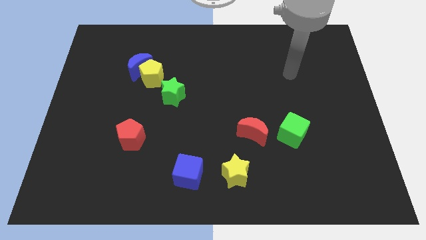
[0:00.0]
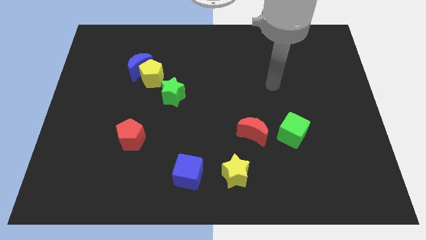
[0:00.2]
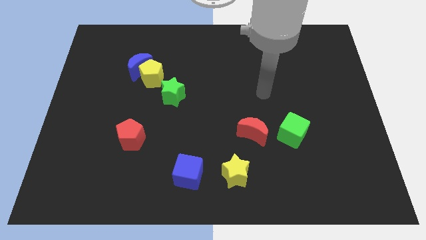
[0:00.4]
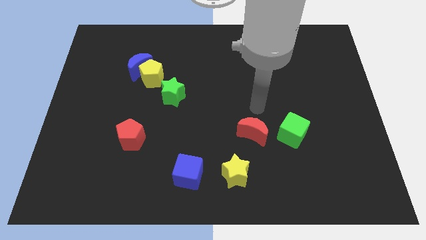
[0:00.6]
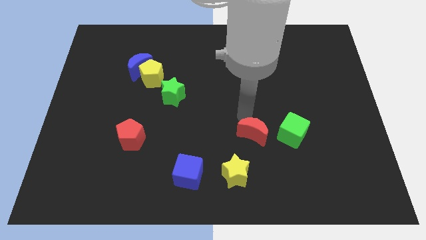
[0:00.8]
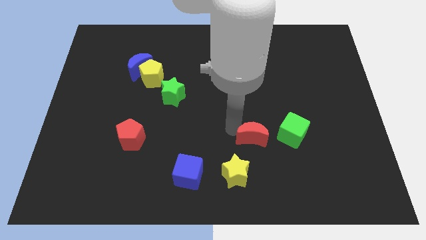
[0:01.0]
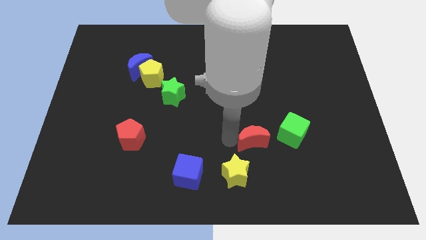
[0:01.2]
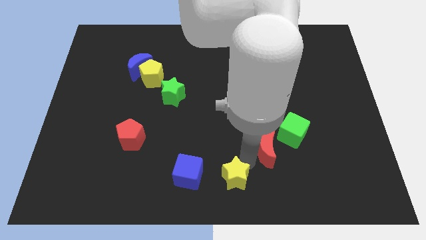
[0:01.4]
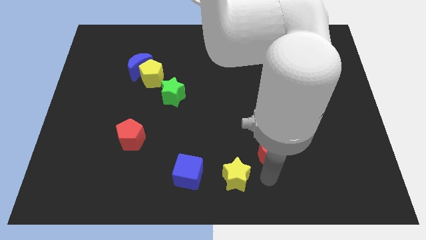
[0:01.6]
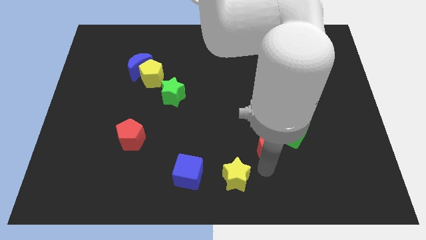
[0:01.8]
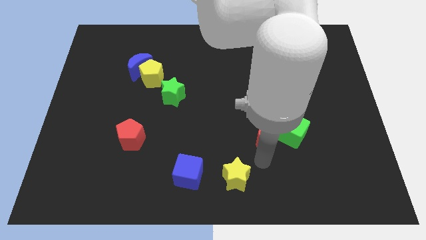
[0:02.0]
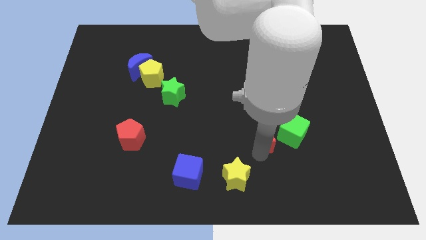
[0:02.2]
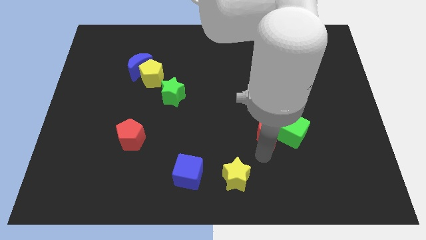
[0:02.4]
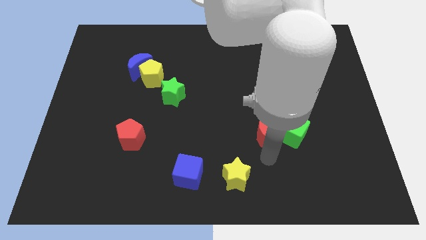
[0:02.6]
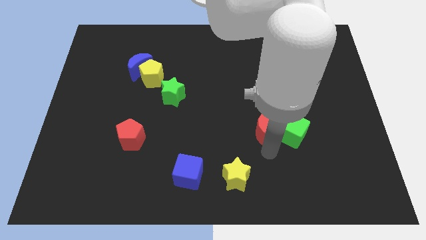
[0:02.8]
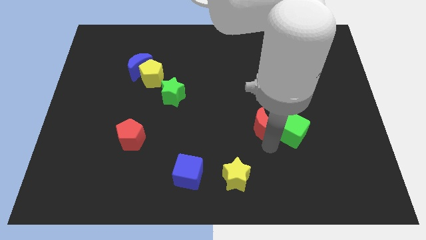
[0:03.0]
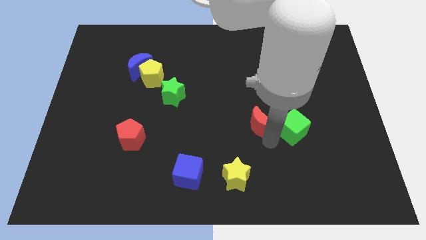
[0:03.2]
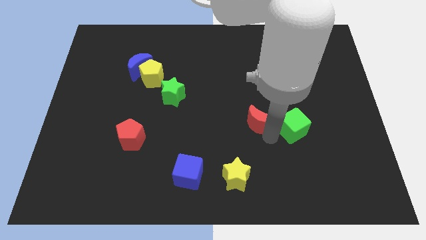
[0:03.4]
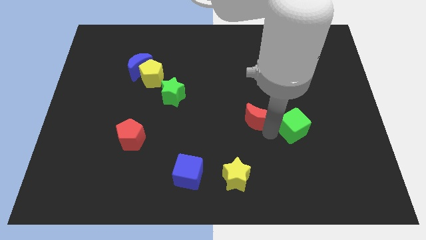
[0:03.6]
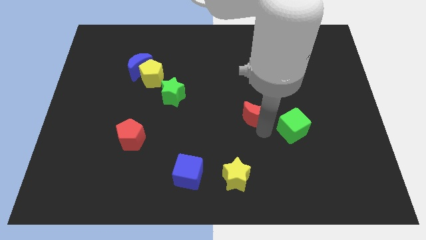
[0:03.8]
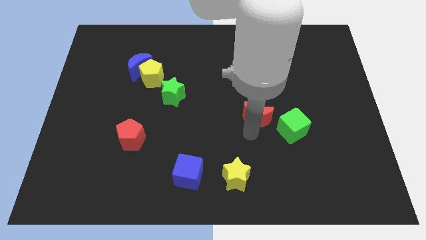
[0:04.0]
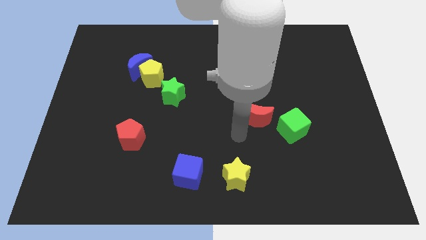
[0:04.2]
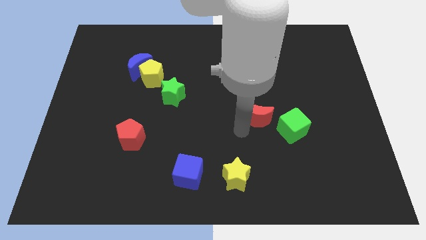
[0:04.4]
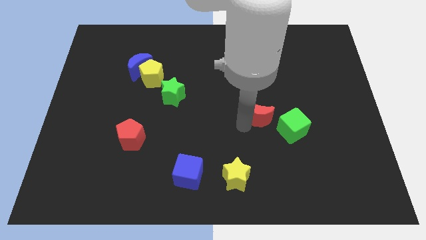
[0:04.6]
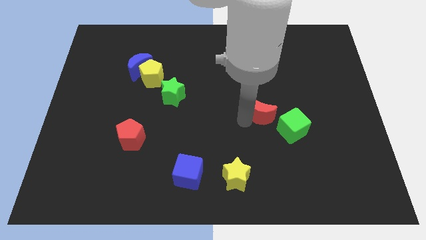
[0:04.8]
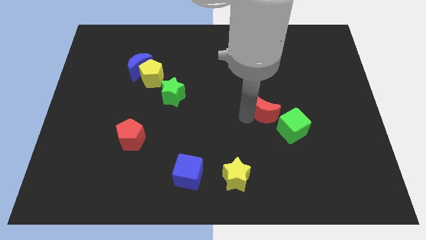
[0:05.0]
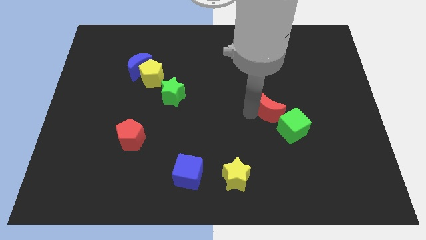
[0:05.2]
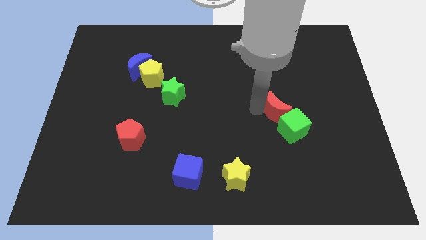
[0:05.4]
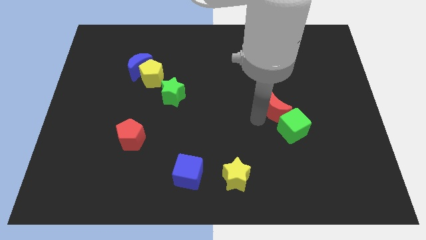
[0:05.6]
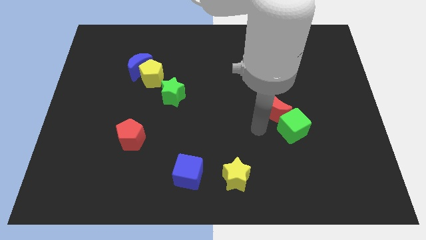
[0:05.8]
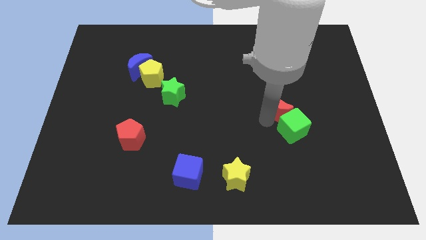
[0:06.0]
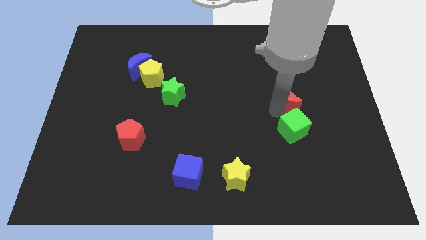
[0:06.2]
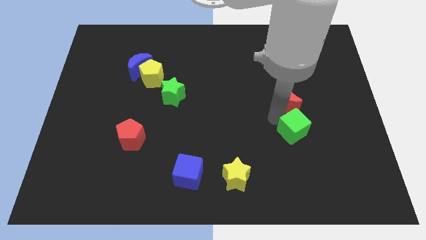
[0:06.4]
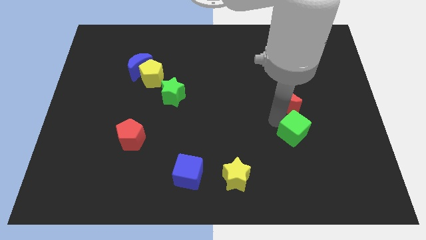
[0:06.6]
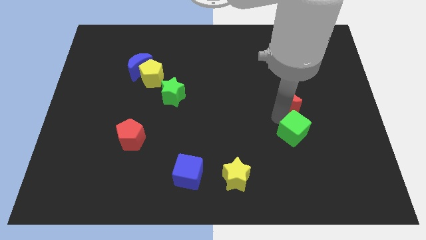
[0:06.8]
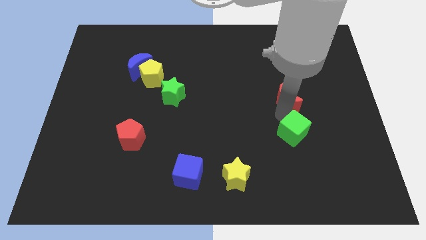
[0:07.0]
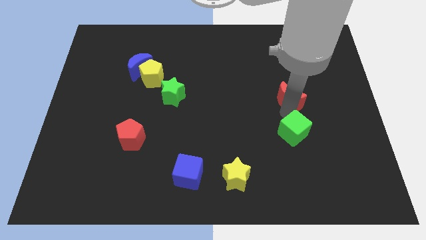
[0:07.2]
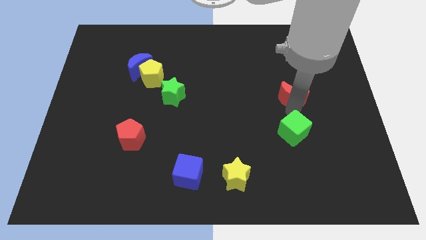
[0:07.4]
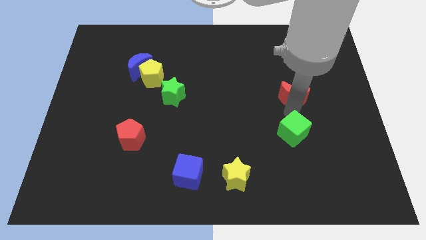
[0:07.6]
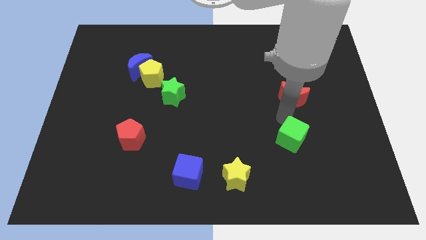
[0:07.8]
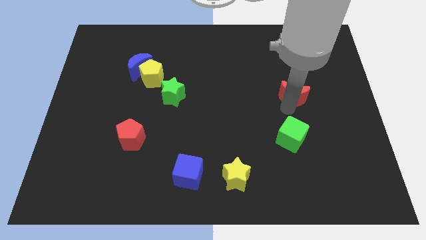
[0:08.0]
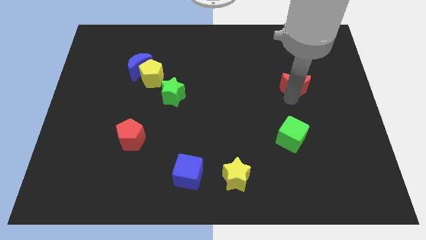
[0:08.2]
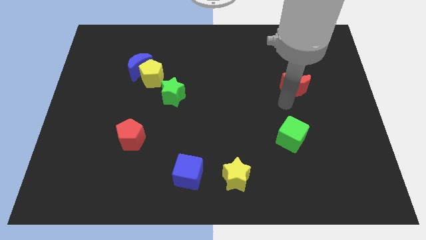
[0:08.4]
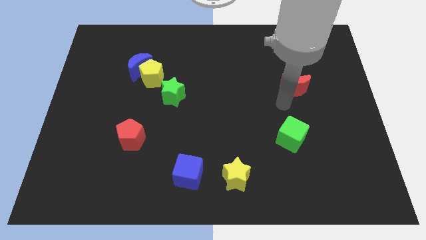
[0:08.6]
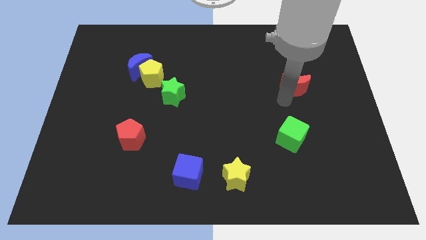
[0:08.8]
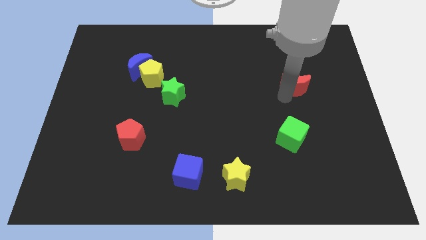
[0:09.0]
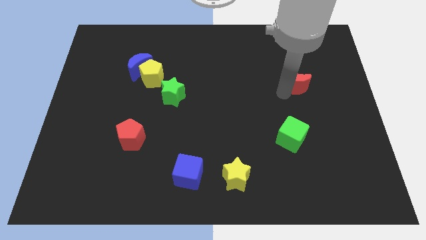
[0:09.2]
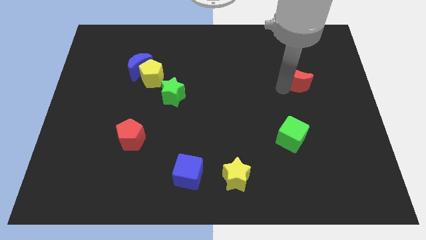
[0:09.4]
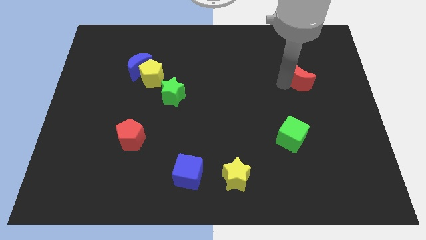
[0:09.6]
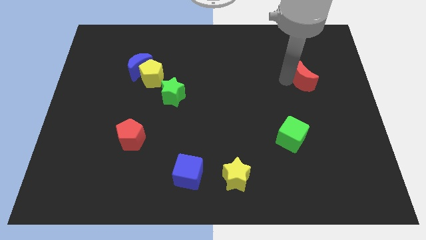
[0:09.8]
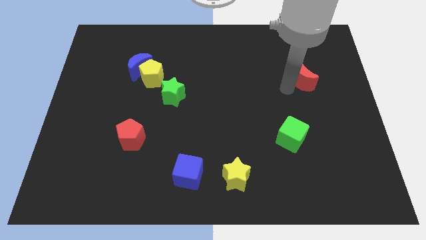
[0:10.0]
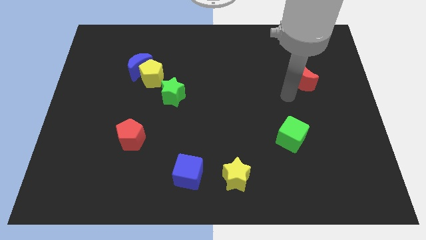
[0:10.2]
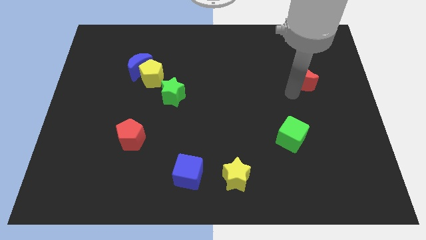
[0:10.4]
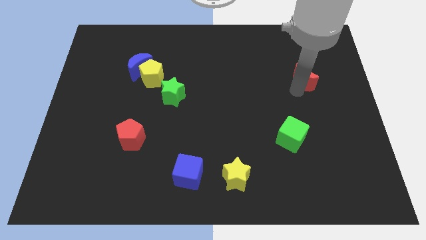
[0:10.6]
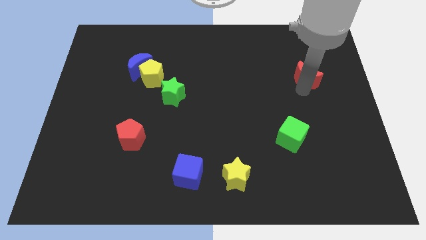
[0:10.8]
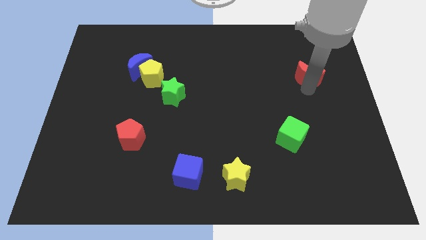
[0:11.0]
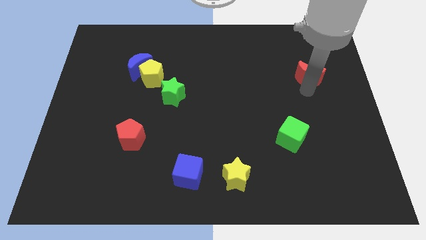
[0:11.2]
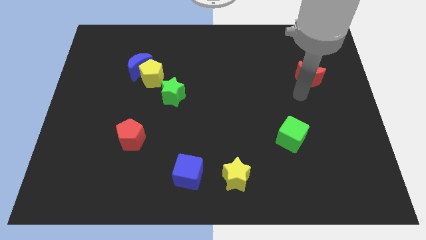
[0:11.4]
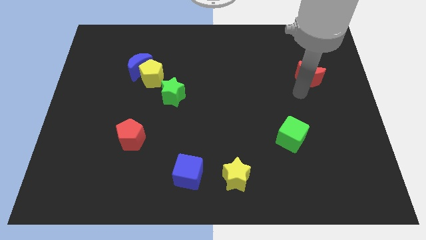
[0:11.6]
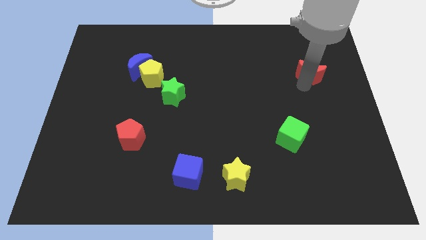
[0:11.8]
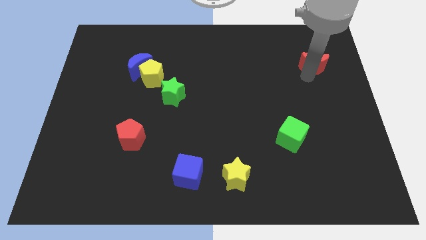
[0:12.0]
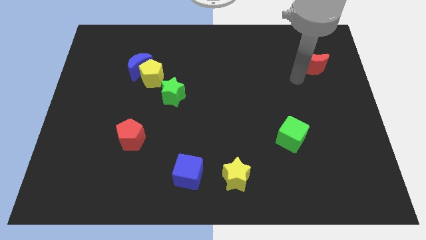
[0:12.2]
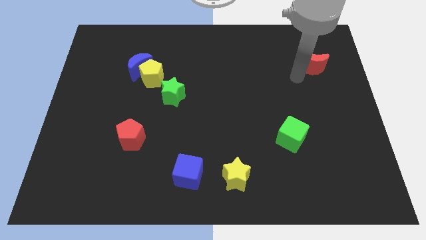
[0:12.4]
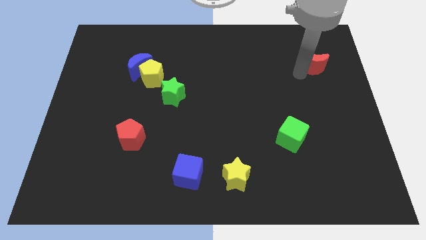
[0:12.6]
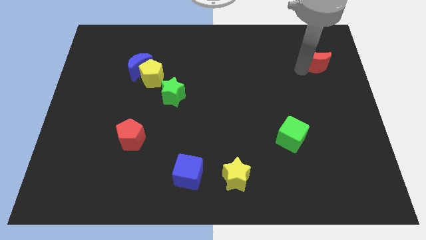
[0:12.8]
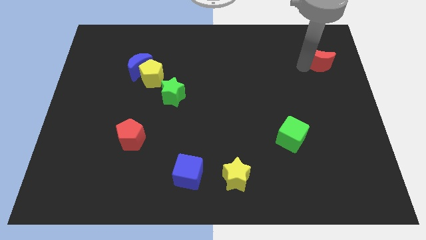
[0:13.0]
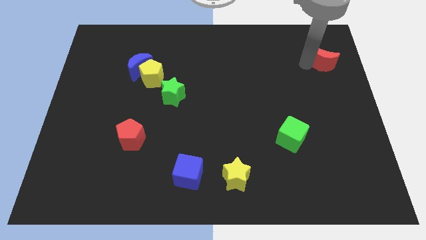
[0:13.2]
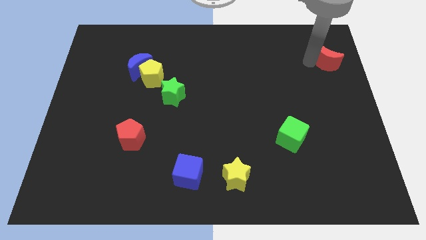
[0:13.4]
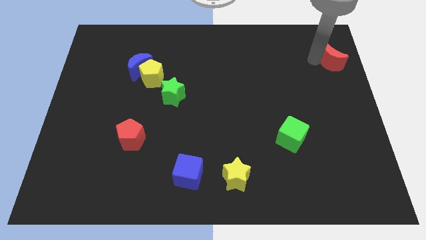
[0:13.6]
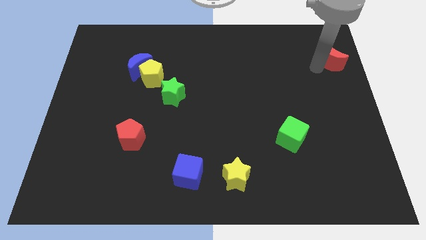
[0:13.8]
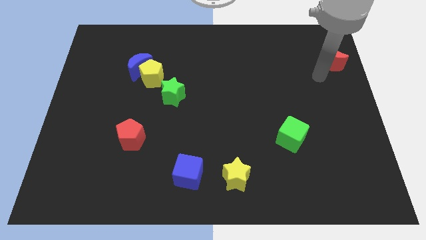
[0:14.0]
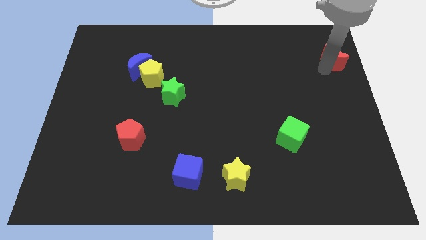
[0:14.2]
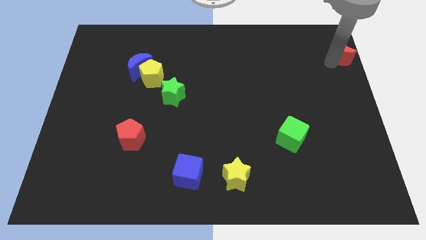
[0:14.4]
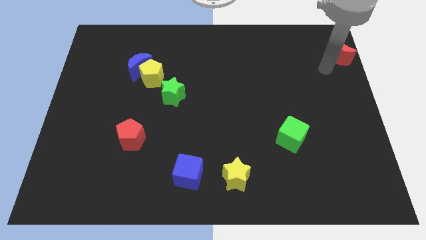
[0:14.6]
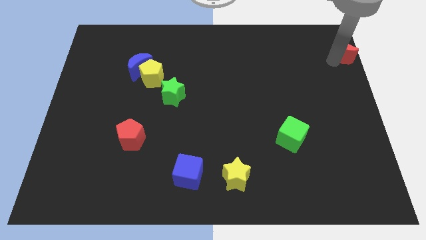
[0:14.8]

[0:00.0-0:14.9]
slide the red moon to the upper right corner
